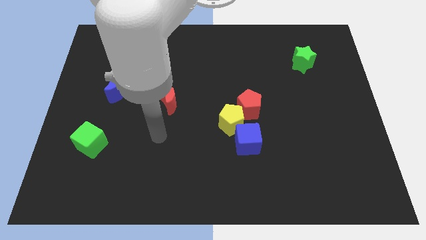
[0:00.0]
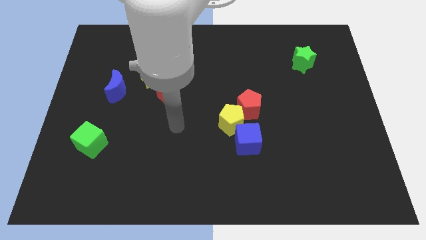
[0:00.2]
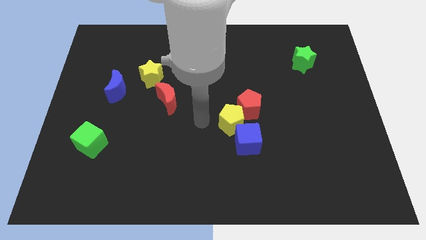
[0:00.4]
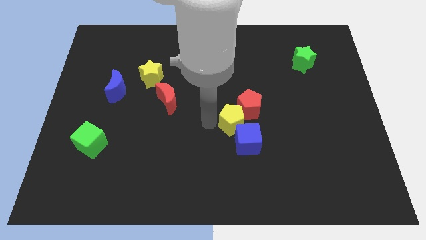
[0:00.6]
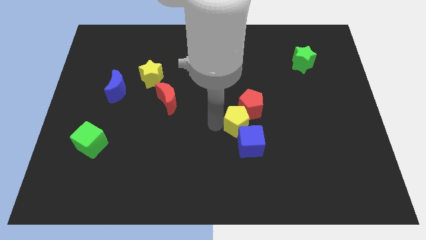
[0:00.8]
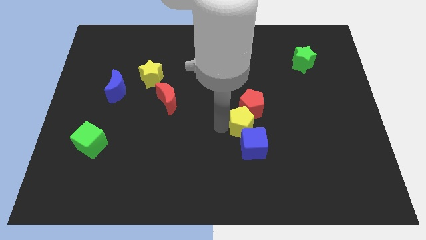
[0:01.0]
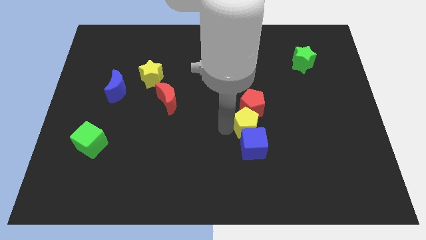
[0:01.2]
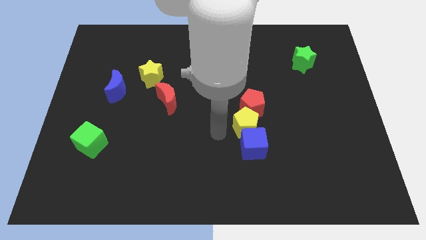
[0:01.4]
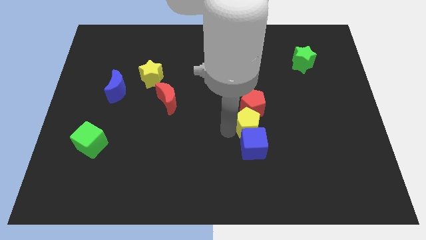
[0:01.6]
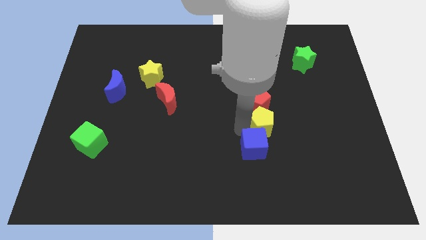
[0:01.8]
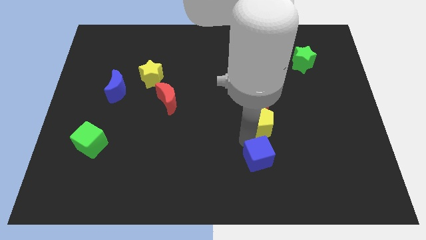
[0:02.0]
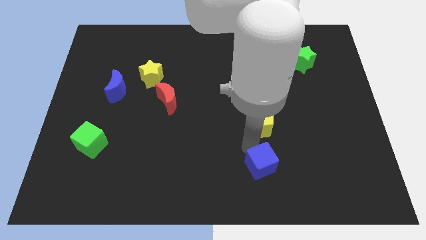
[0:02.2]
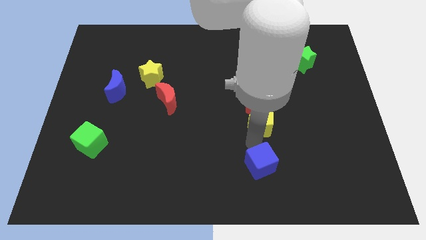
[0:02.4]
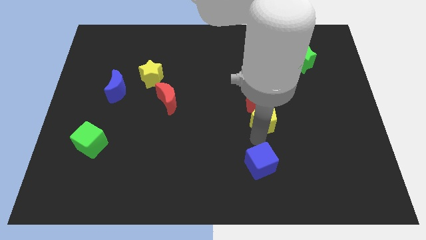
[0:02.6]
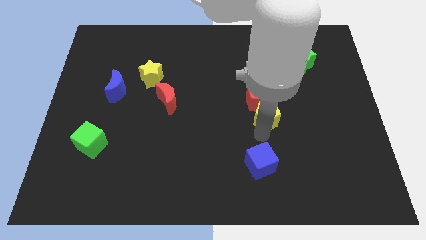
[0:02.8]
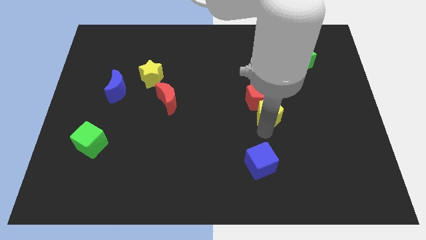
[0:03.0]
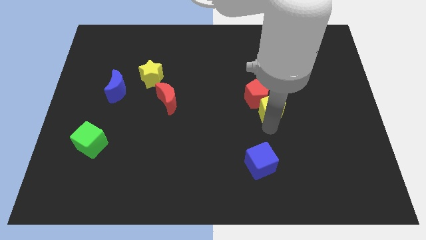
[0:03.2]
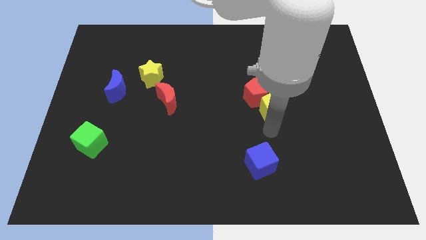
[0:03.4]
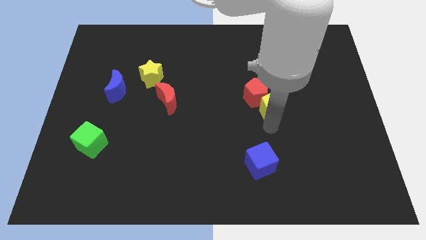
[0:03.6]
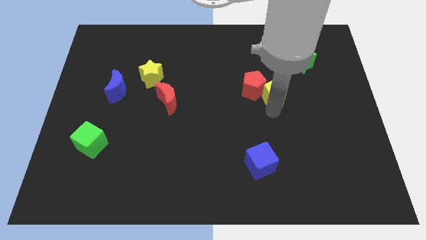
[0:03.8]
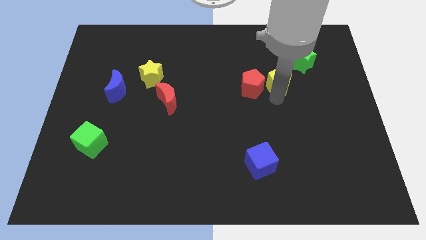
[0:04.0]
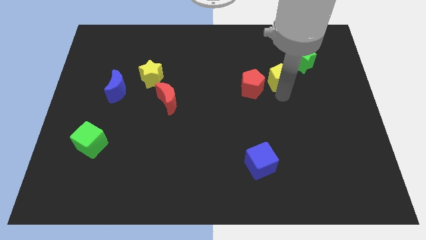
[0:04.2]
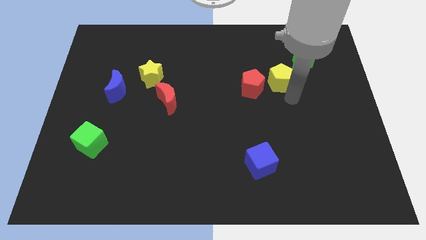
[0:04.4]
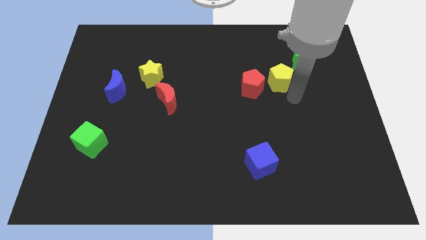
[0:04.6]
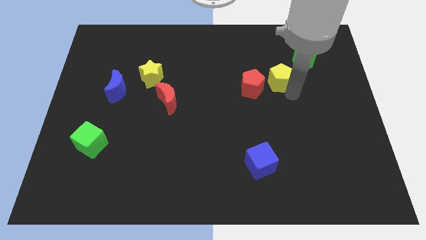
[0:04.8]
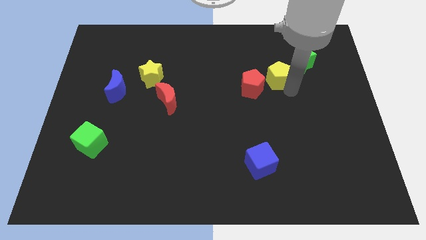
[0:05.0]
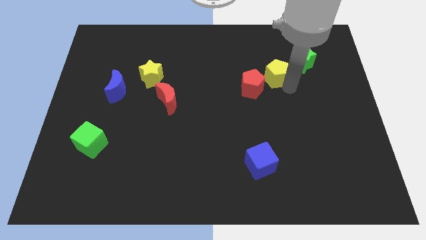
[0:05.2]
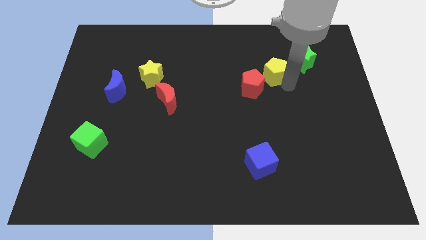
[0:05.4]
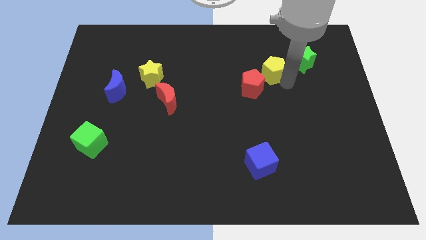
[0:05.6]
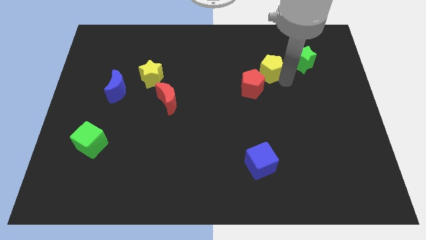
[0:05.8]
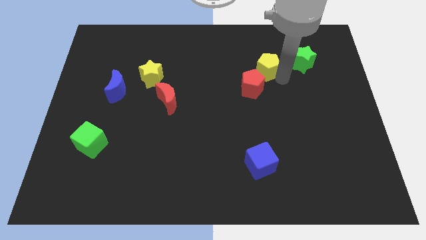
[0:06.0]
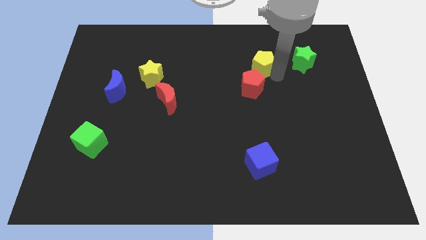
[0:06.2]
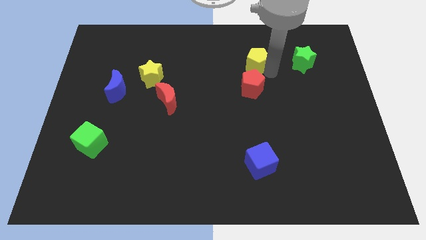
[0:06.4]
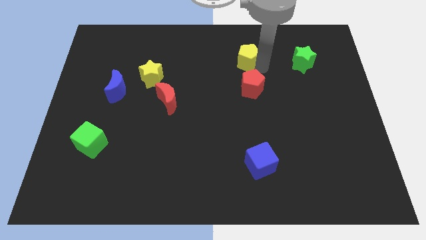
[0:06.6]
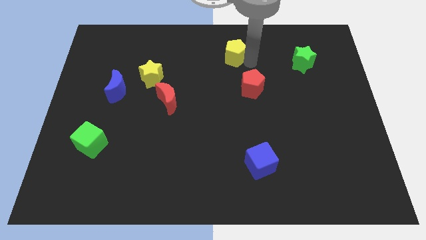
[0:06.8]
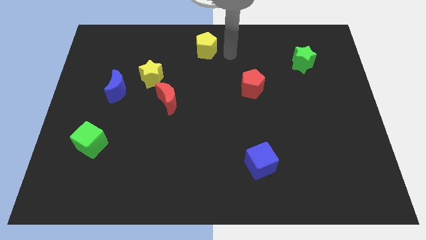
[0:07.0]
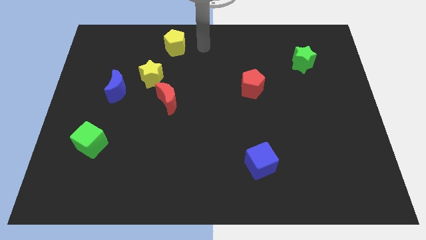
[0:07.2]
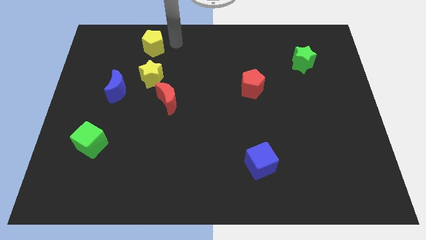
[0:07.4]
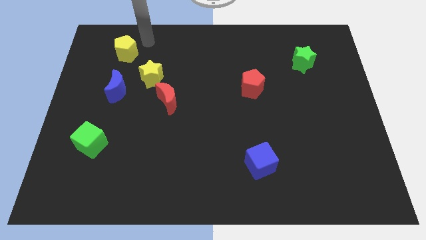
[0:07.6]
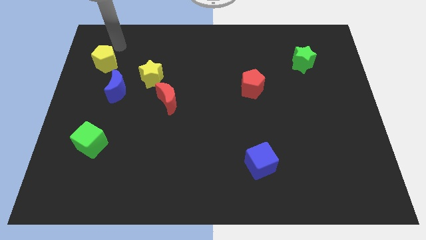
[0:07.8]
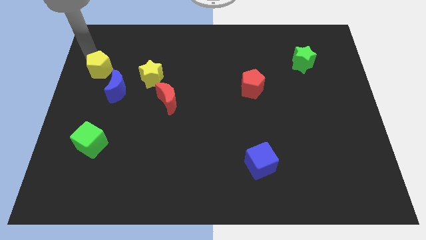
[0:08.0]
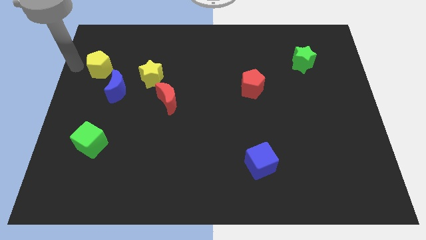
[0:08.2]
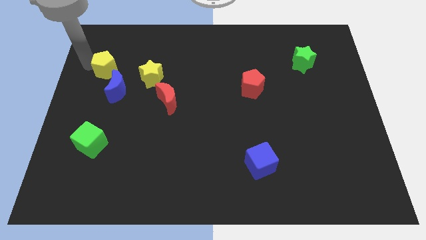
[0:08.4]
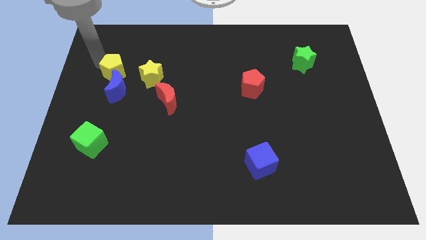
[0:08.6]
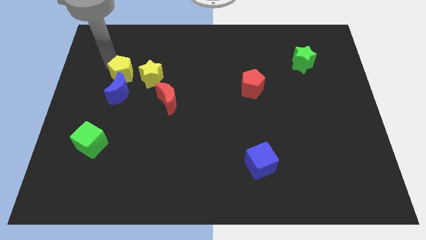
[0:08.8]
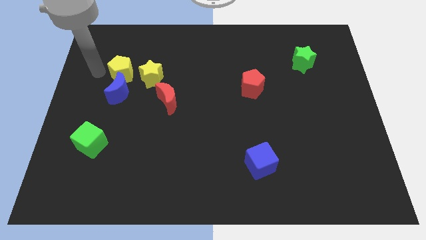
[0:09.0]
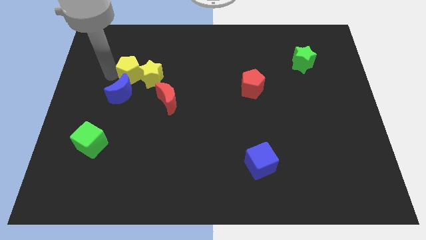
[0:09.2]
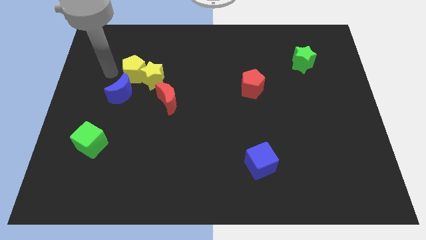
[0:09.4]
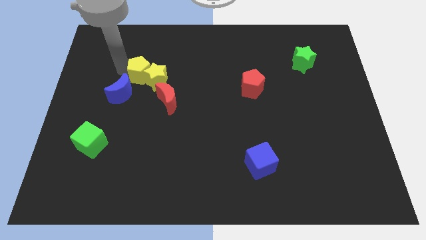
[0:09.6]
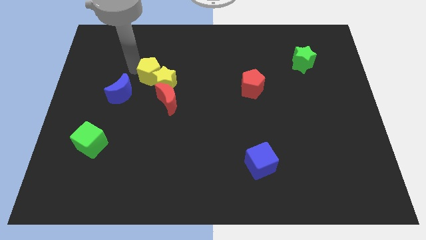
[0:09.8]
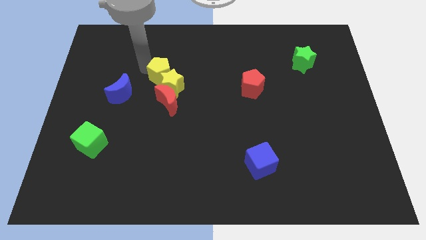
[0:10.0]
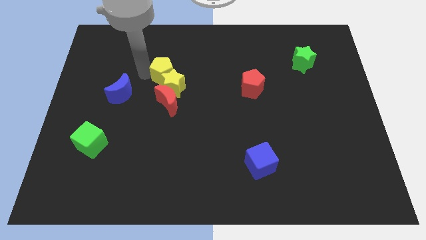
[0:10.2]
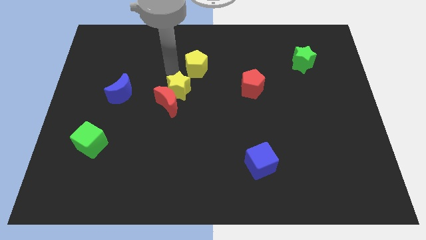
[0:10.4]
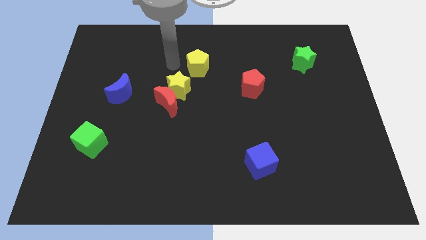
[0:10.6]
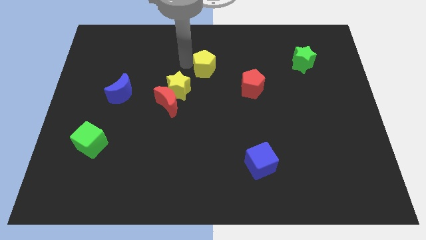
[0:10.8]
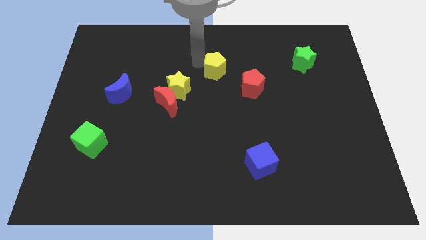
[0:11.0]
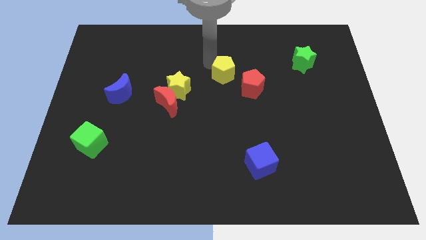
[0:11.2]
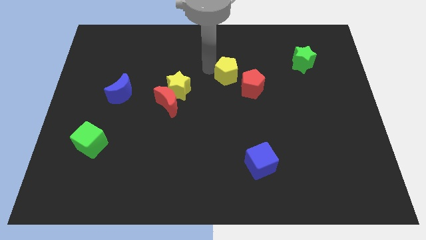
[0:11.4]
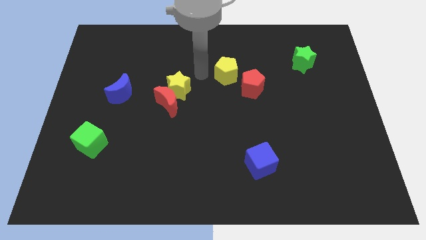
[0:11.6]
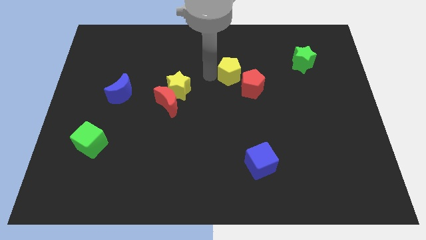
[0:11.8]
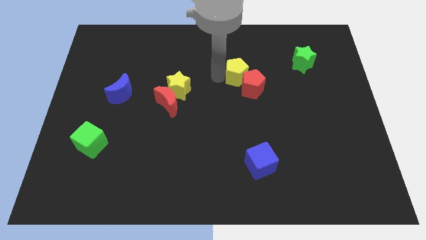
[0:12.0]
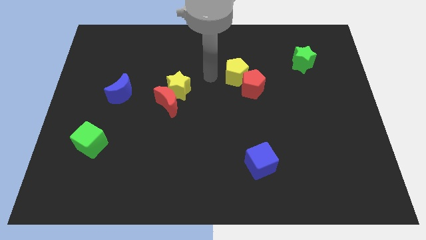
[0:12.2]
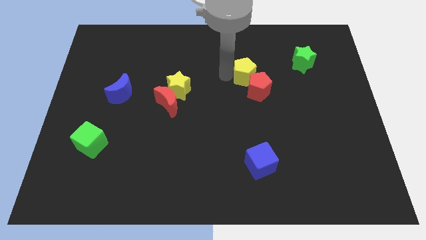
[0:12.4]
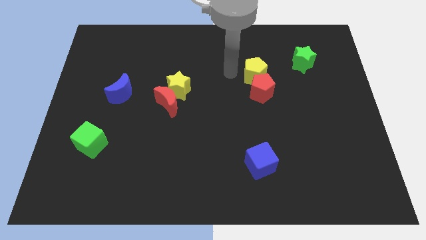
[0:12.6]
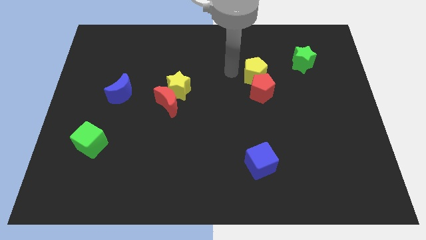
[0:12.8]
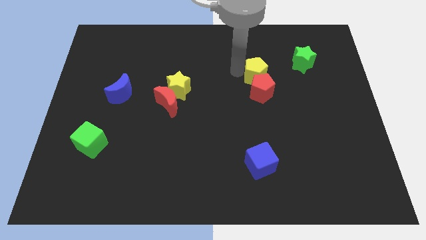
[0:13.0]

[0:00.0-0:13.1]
slide the yellow pentagon to the top right of the red pentagon
